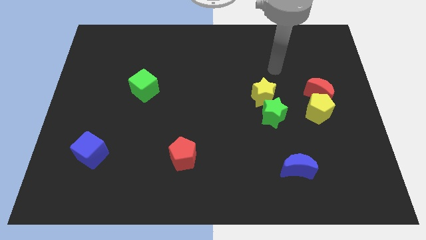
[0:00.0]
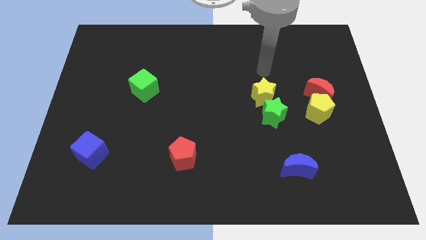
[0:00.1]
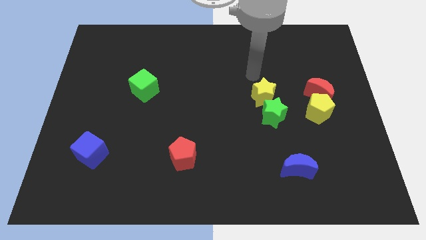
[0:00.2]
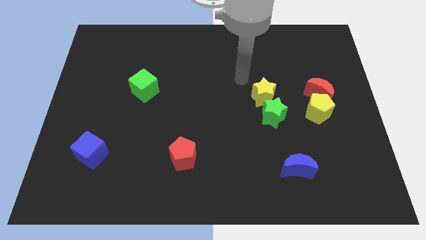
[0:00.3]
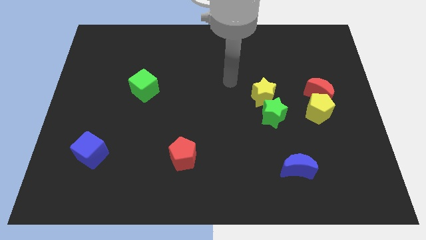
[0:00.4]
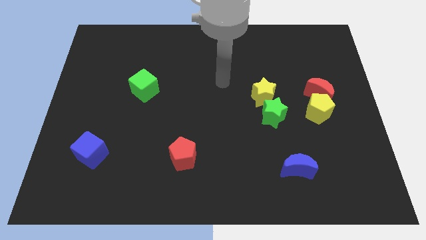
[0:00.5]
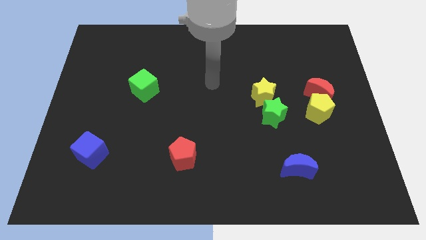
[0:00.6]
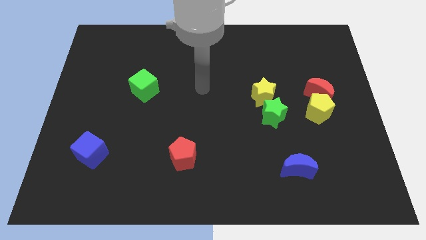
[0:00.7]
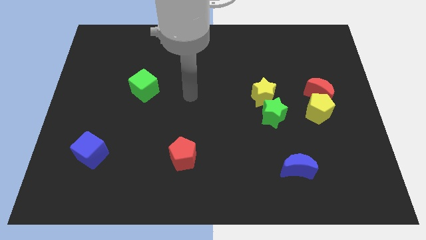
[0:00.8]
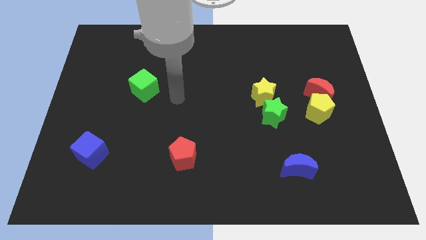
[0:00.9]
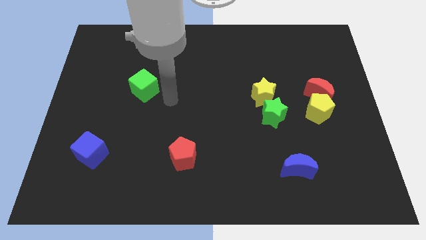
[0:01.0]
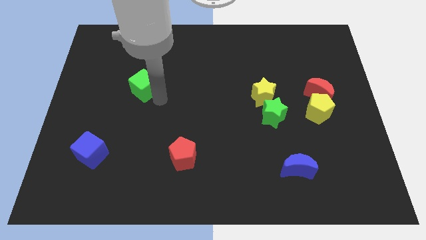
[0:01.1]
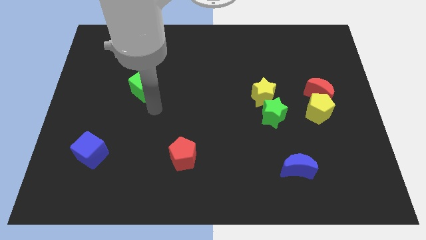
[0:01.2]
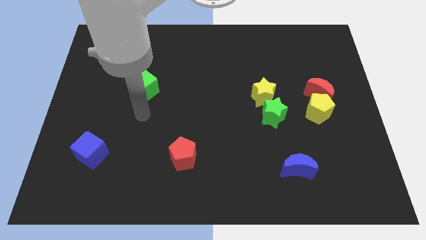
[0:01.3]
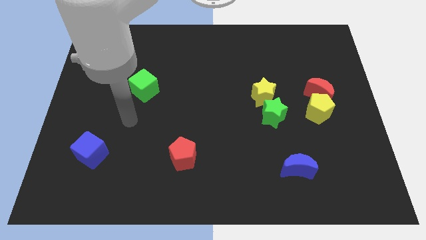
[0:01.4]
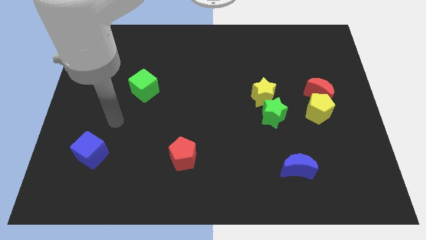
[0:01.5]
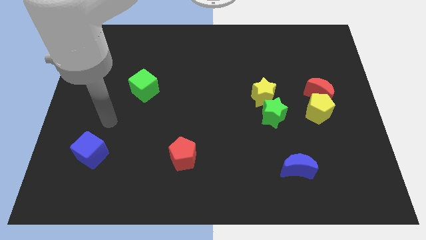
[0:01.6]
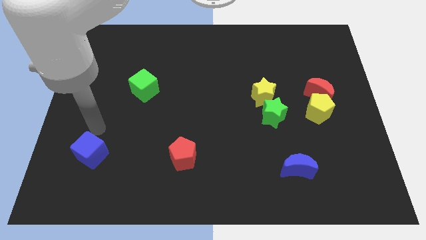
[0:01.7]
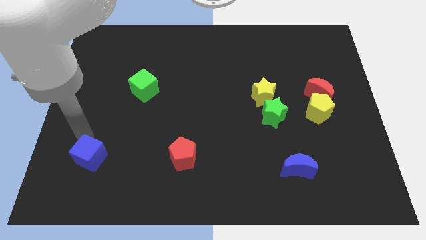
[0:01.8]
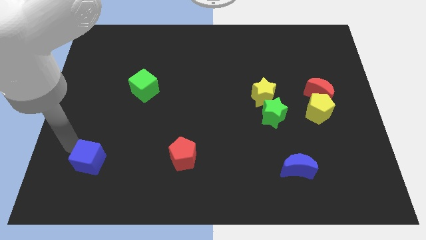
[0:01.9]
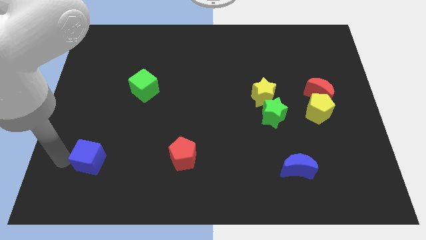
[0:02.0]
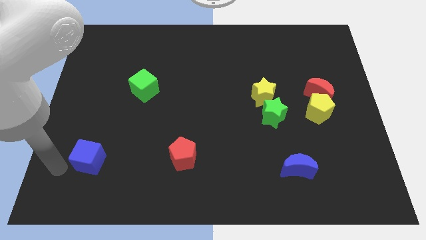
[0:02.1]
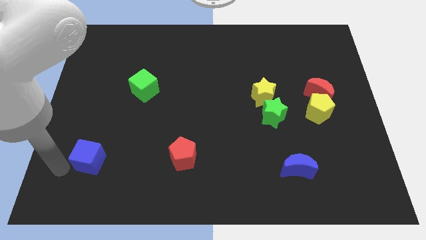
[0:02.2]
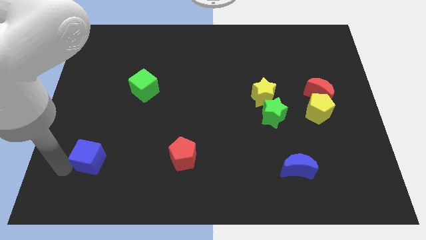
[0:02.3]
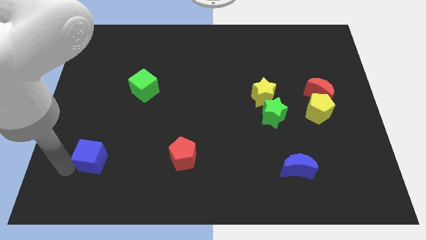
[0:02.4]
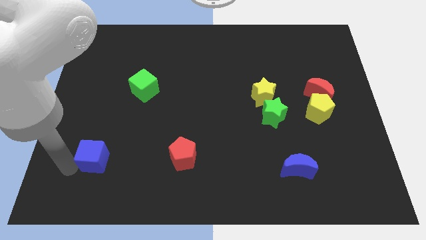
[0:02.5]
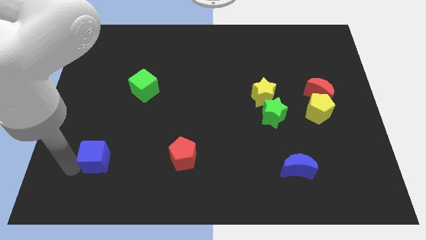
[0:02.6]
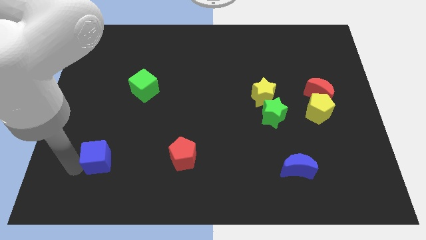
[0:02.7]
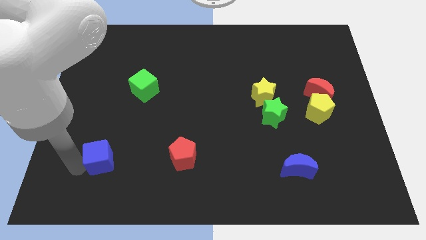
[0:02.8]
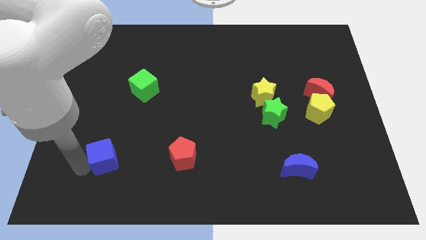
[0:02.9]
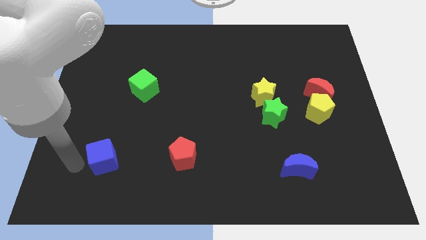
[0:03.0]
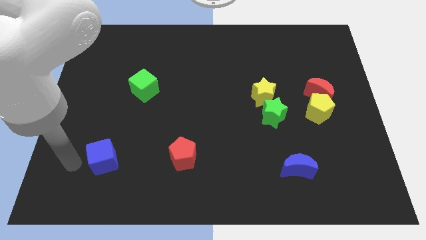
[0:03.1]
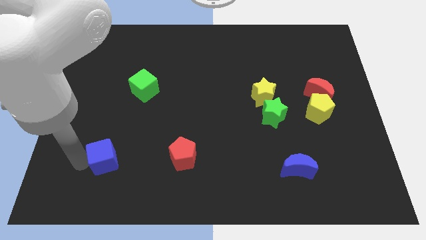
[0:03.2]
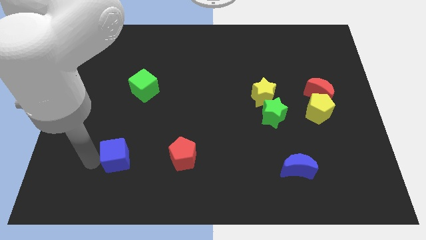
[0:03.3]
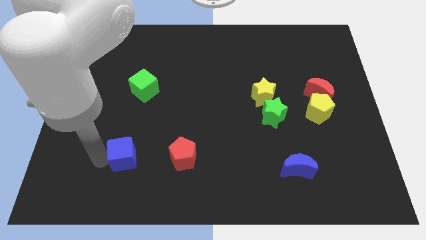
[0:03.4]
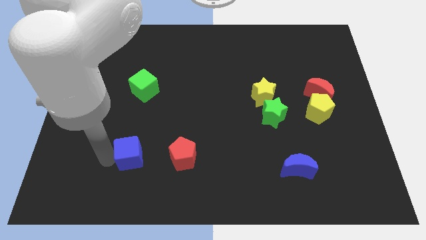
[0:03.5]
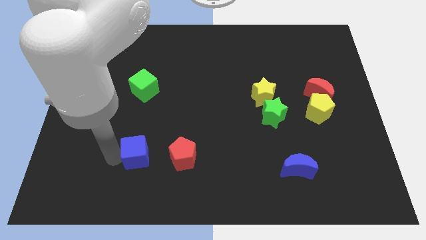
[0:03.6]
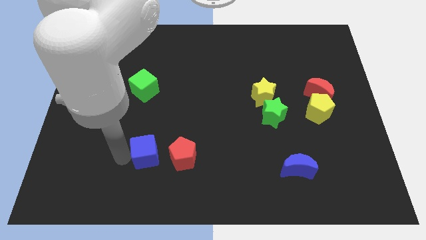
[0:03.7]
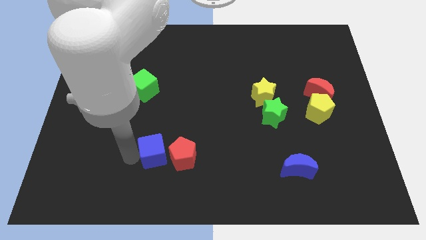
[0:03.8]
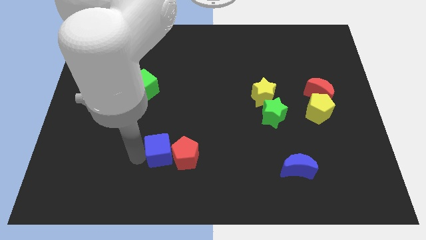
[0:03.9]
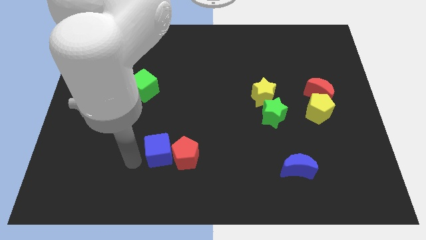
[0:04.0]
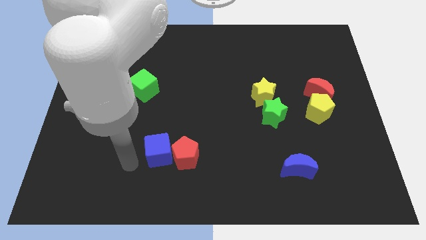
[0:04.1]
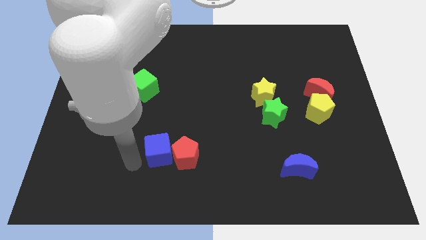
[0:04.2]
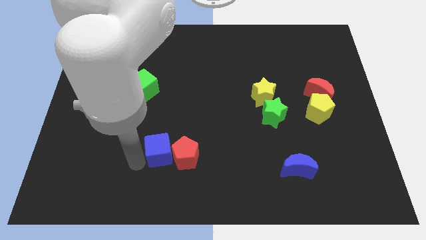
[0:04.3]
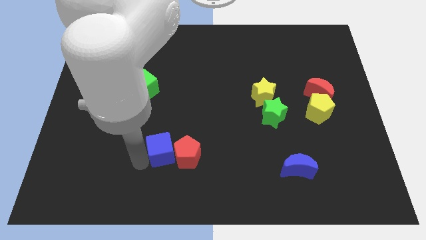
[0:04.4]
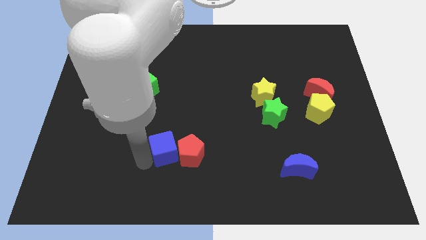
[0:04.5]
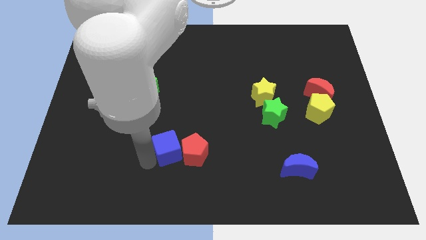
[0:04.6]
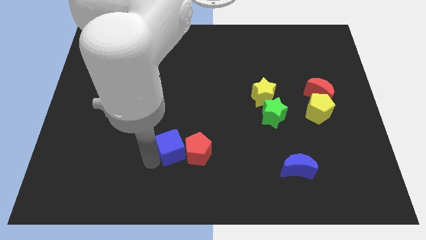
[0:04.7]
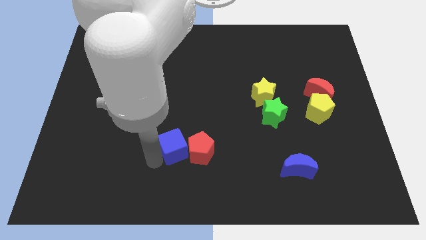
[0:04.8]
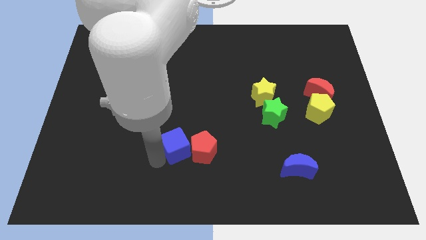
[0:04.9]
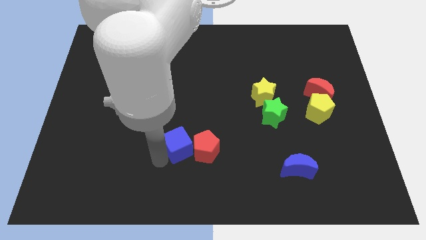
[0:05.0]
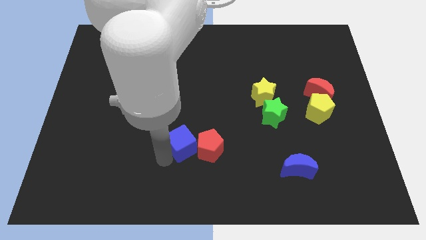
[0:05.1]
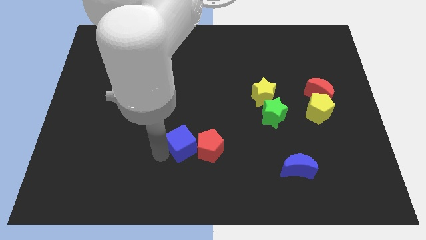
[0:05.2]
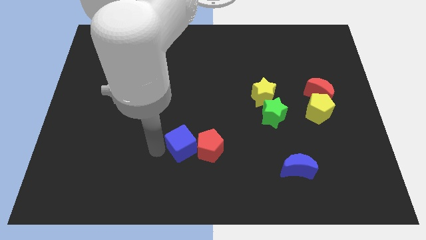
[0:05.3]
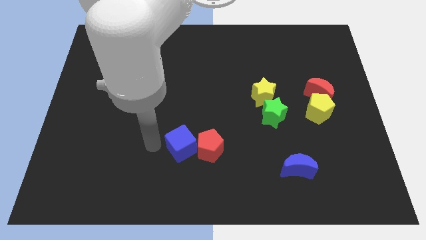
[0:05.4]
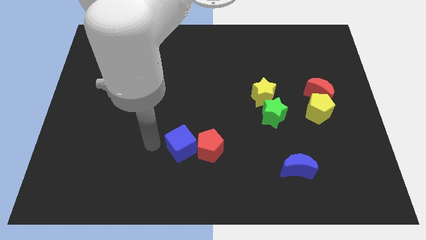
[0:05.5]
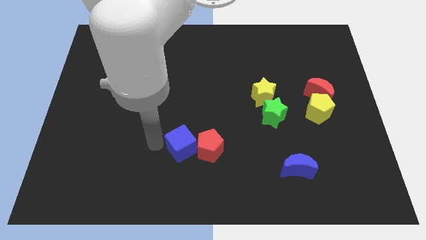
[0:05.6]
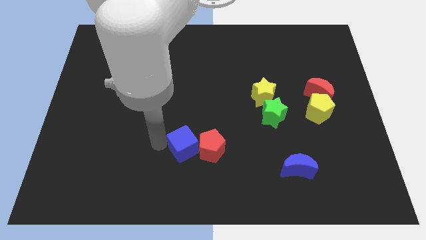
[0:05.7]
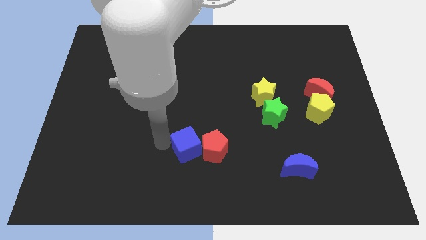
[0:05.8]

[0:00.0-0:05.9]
push the blue cube right

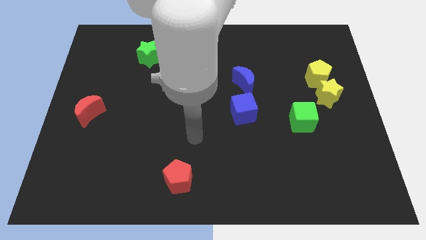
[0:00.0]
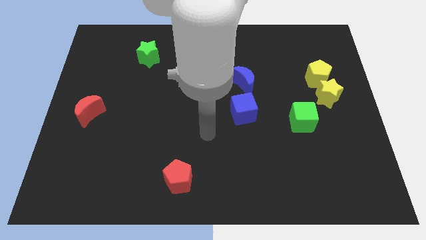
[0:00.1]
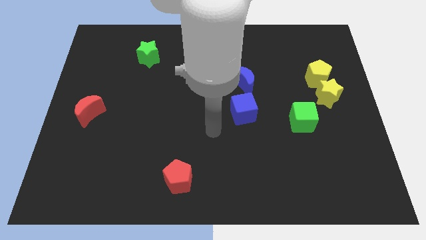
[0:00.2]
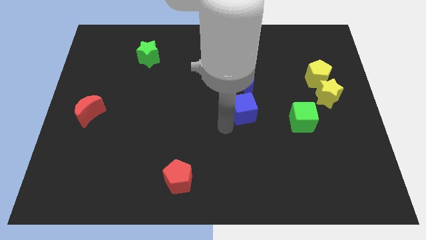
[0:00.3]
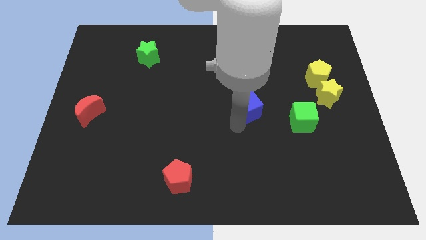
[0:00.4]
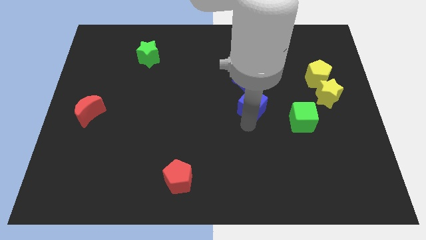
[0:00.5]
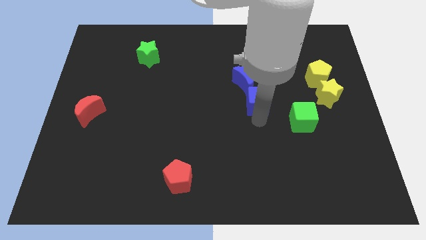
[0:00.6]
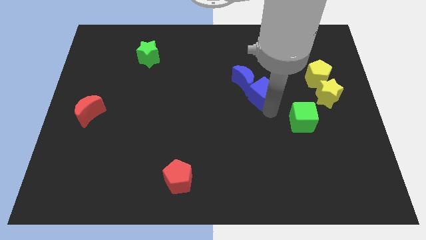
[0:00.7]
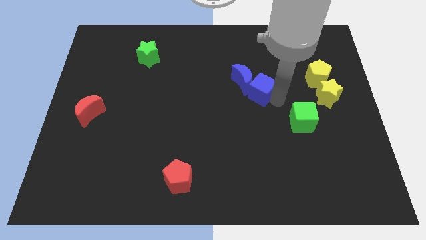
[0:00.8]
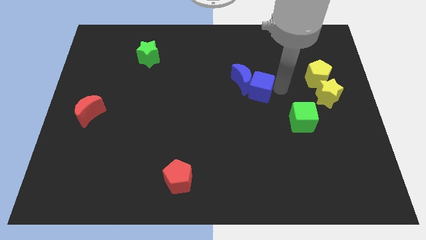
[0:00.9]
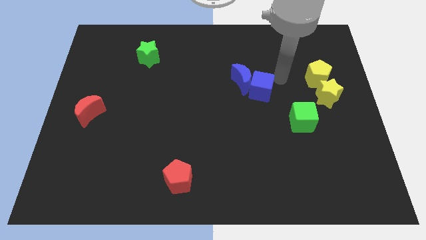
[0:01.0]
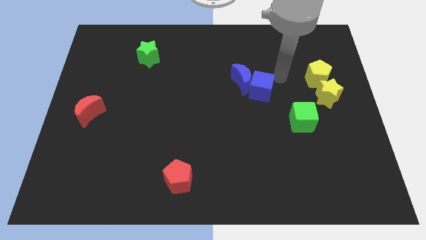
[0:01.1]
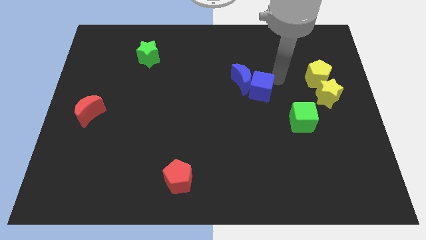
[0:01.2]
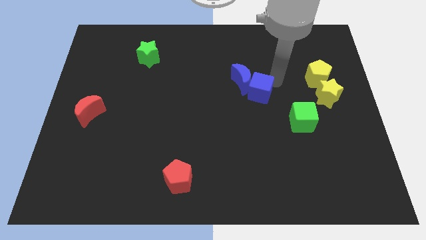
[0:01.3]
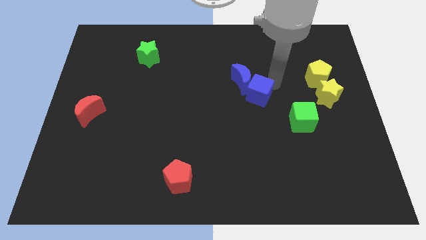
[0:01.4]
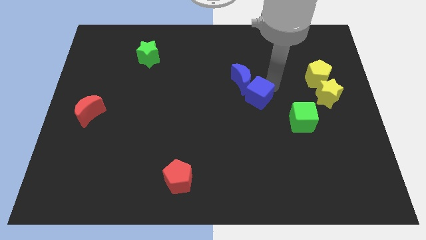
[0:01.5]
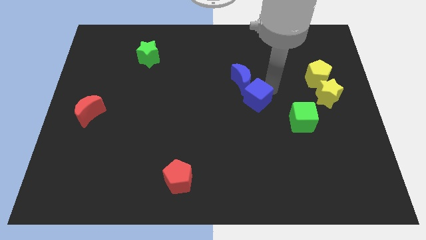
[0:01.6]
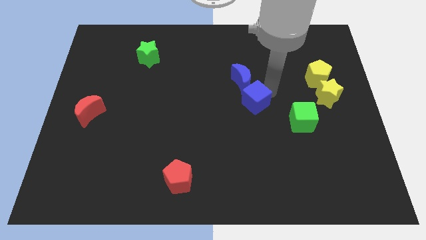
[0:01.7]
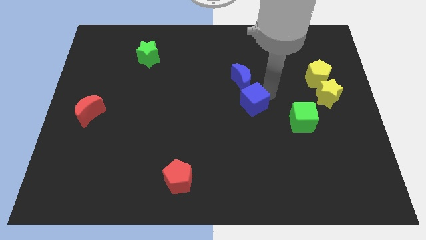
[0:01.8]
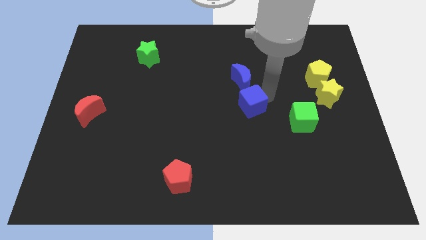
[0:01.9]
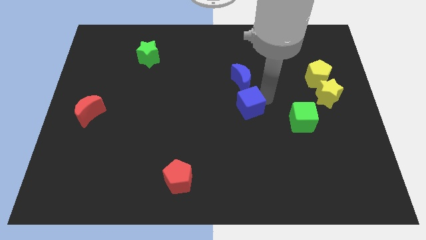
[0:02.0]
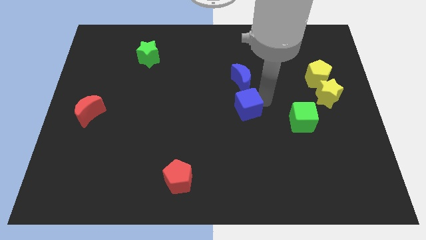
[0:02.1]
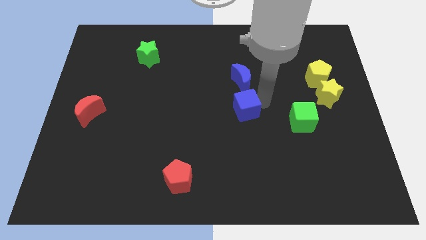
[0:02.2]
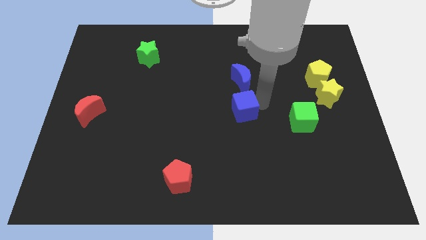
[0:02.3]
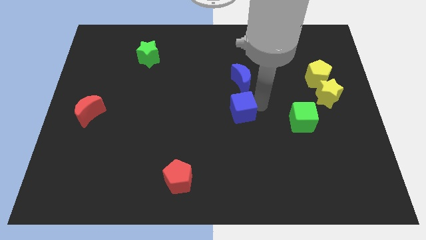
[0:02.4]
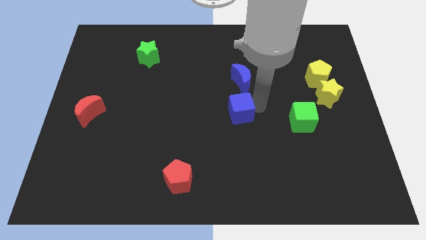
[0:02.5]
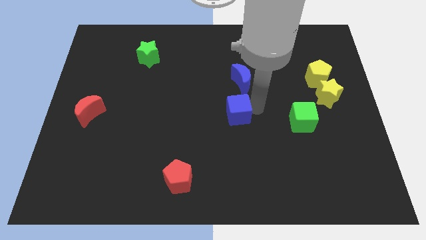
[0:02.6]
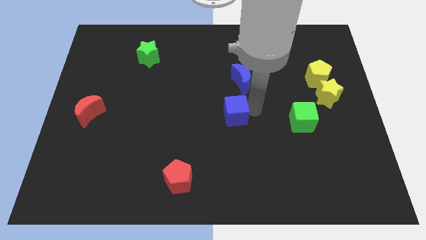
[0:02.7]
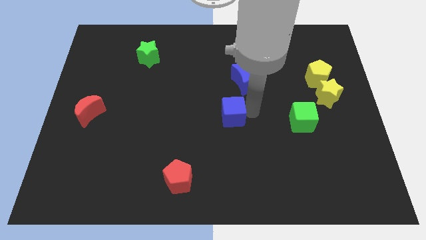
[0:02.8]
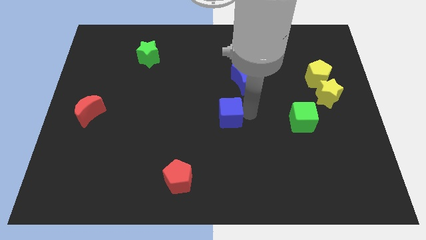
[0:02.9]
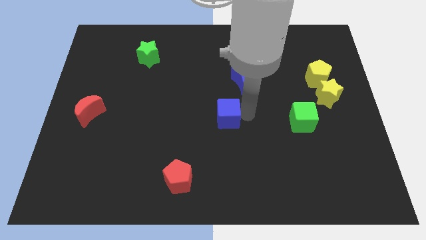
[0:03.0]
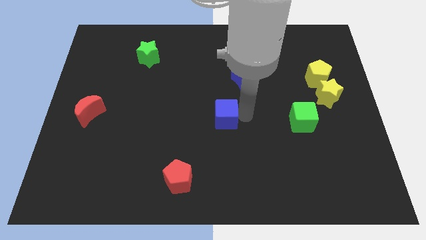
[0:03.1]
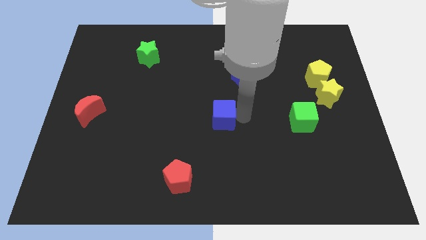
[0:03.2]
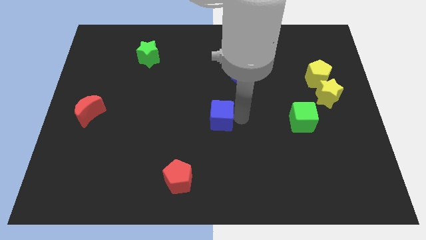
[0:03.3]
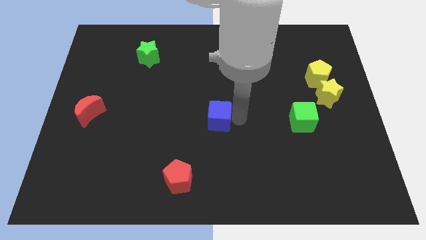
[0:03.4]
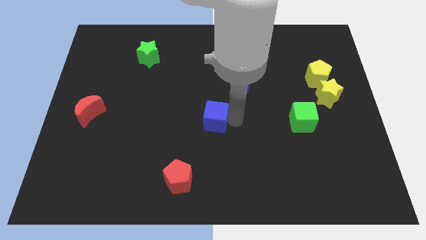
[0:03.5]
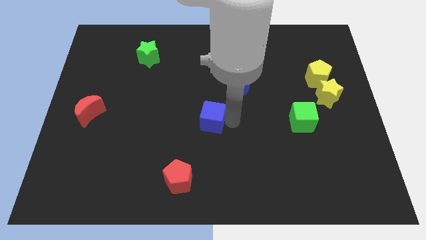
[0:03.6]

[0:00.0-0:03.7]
move the blue cube left a little bit
